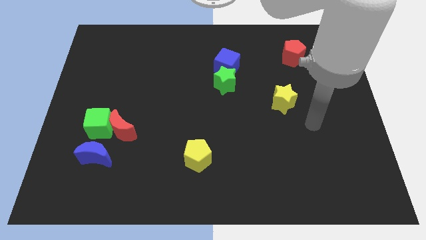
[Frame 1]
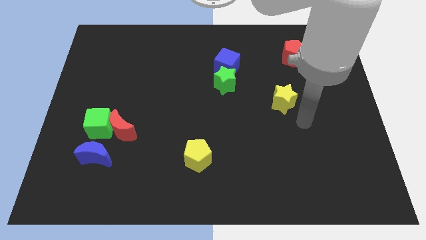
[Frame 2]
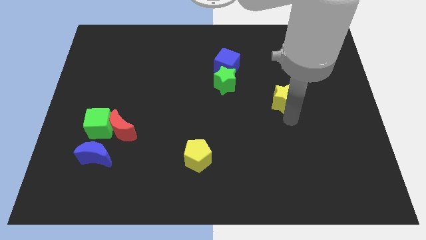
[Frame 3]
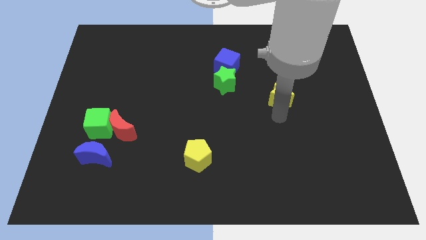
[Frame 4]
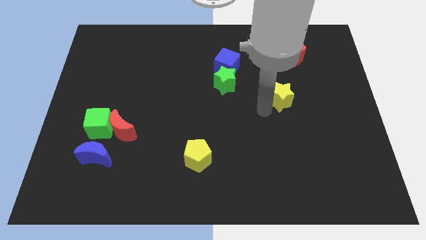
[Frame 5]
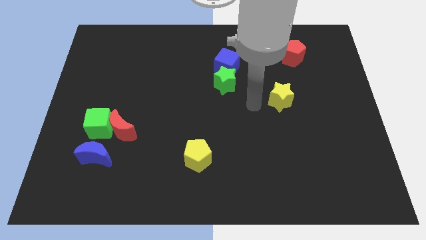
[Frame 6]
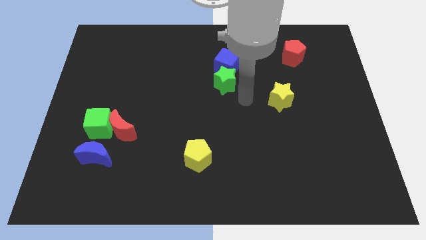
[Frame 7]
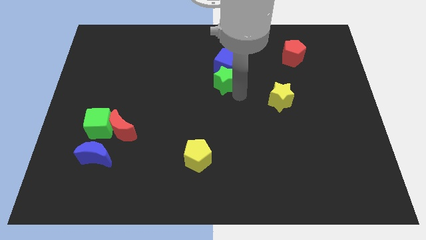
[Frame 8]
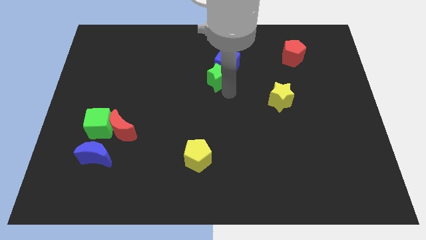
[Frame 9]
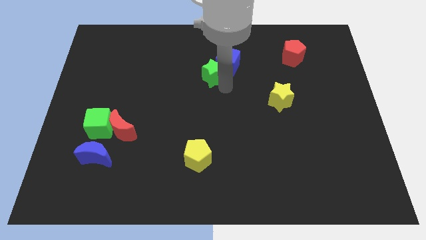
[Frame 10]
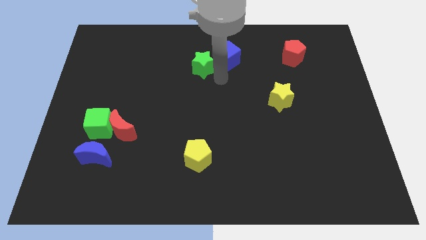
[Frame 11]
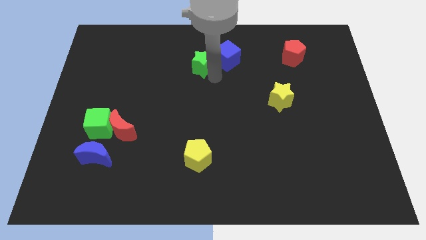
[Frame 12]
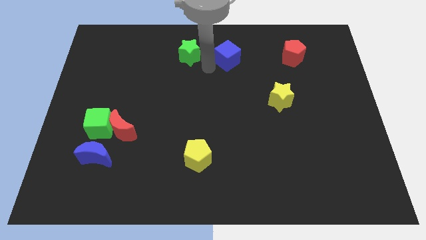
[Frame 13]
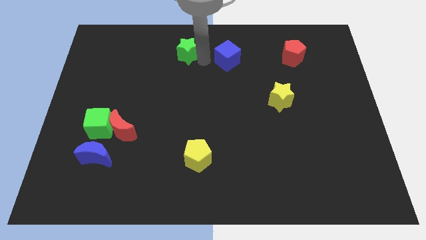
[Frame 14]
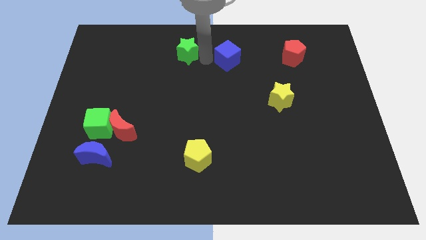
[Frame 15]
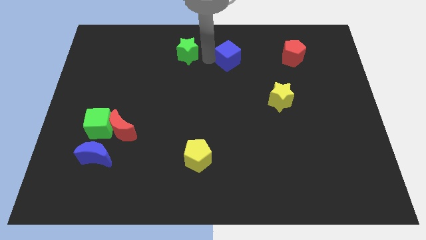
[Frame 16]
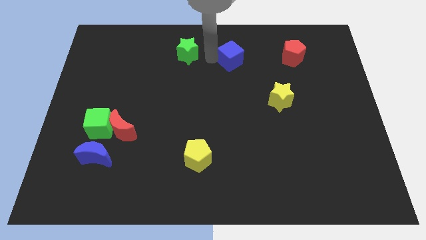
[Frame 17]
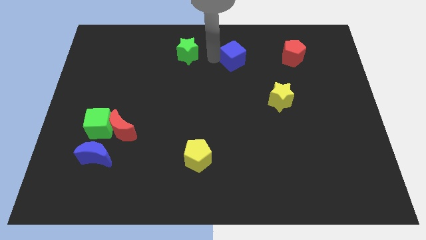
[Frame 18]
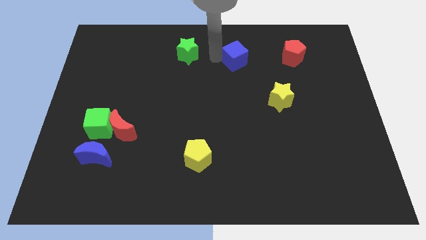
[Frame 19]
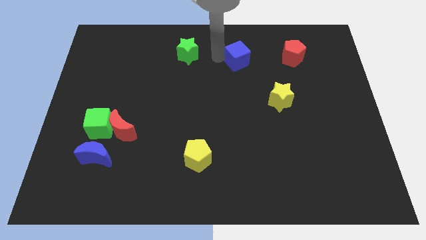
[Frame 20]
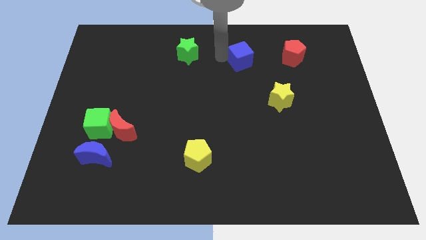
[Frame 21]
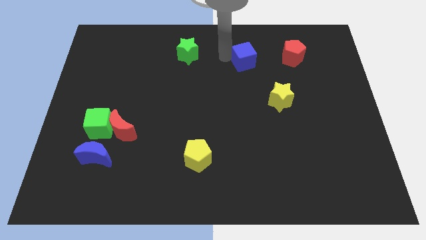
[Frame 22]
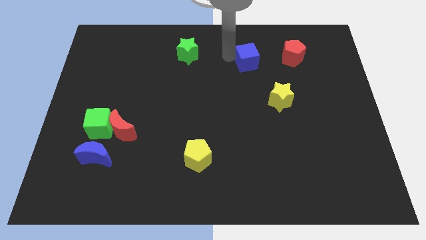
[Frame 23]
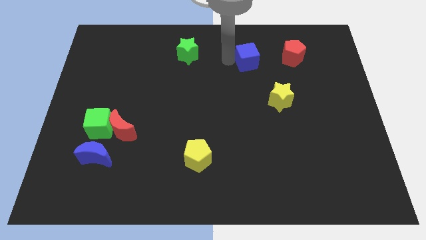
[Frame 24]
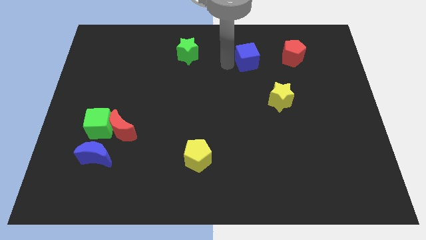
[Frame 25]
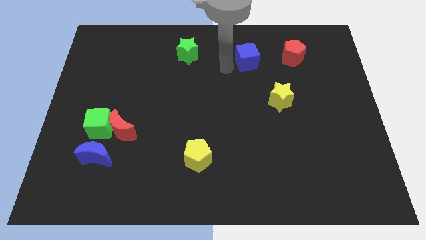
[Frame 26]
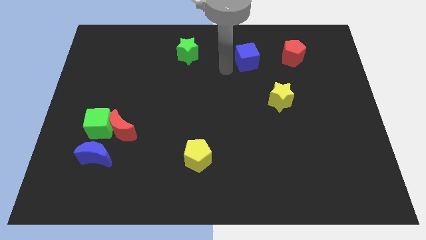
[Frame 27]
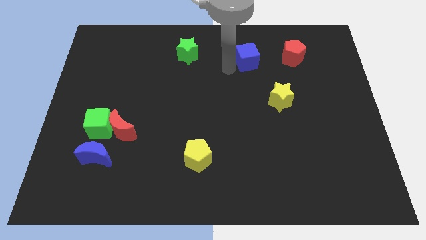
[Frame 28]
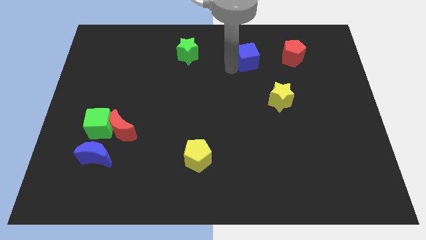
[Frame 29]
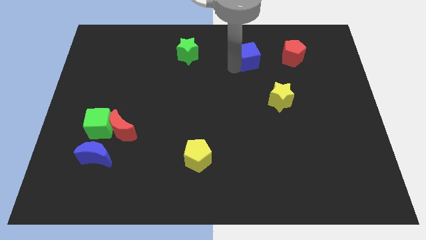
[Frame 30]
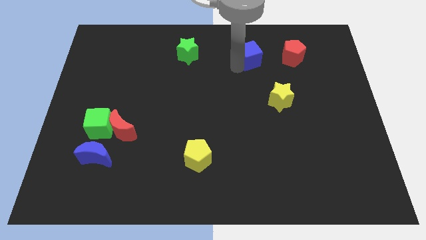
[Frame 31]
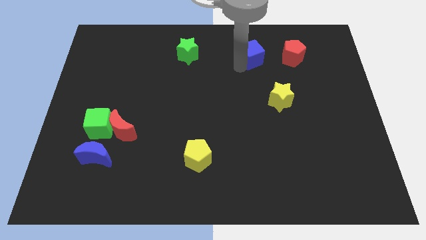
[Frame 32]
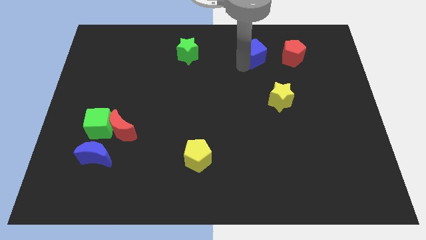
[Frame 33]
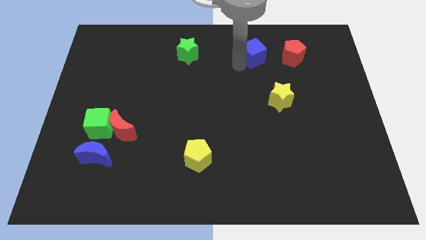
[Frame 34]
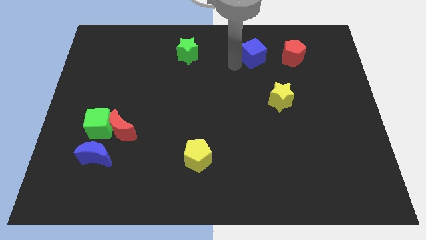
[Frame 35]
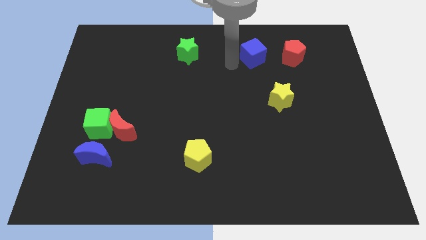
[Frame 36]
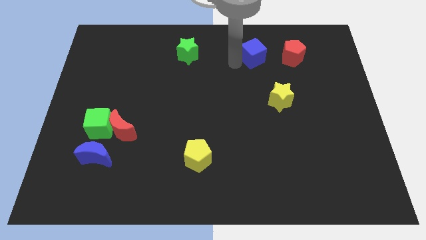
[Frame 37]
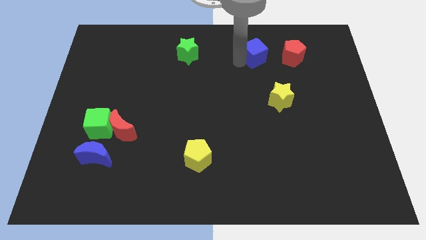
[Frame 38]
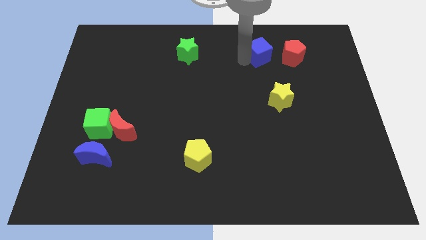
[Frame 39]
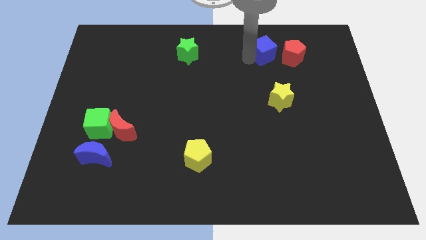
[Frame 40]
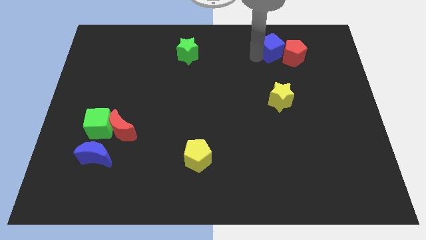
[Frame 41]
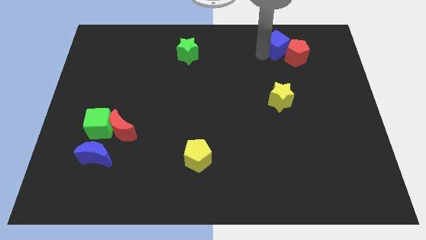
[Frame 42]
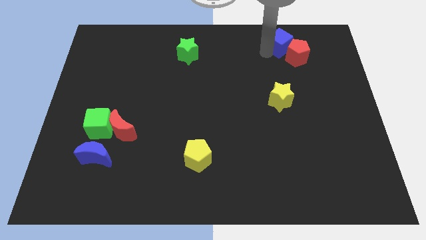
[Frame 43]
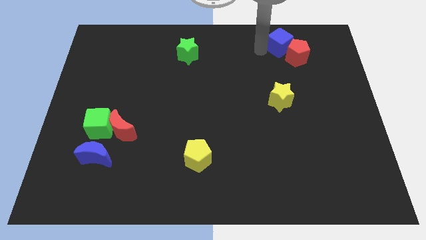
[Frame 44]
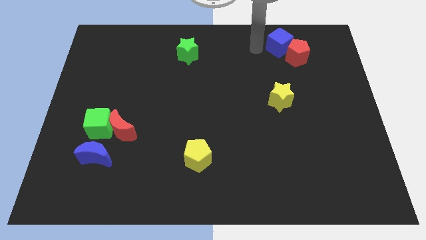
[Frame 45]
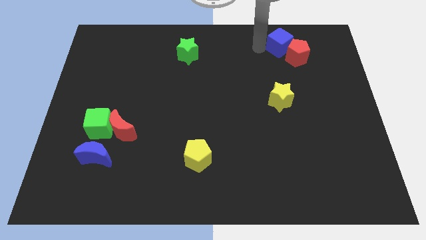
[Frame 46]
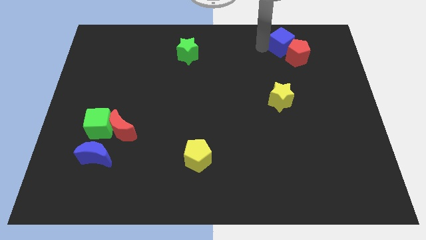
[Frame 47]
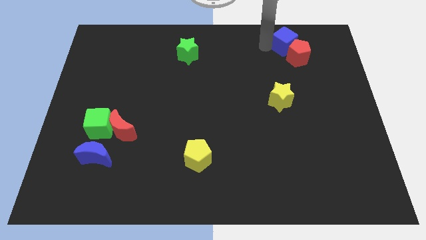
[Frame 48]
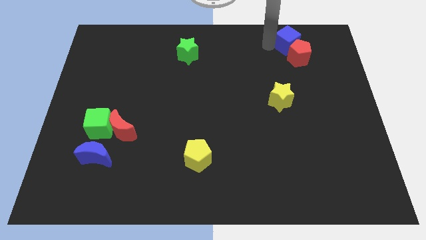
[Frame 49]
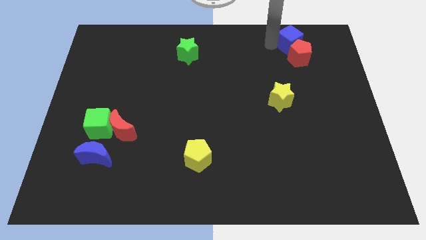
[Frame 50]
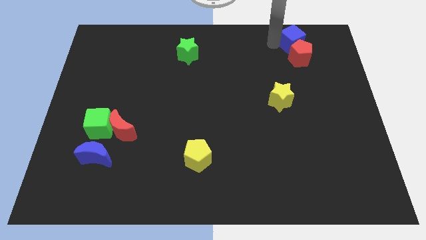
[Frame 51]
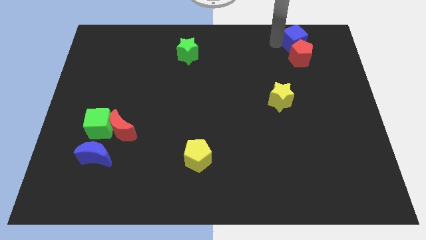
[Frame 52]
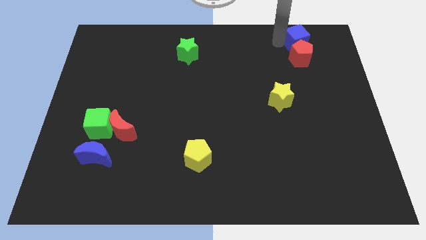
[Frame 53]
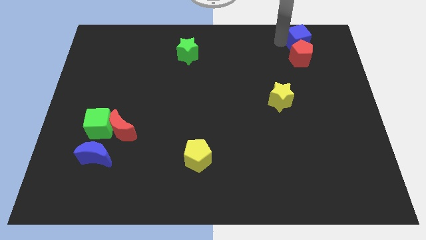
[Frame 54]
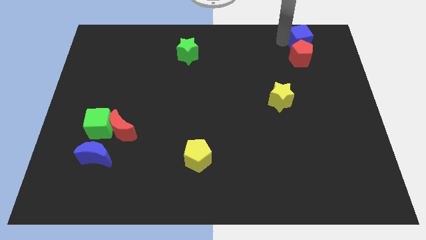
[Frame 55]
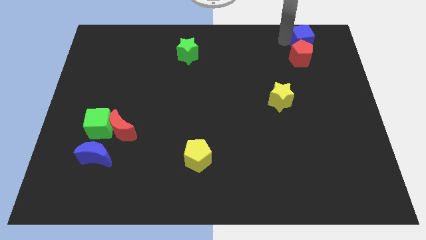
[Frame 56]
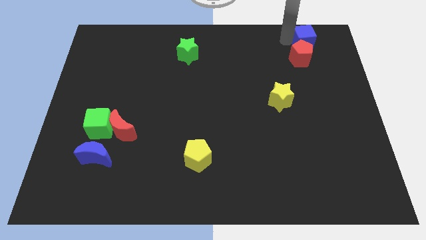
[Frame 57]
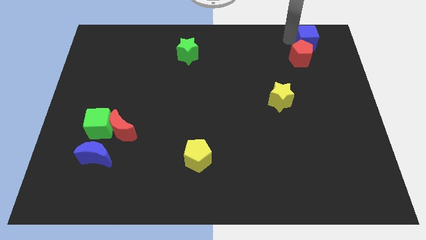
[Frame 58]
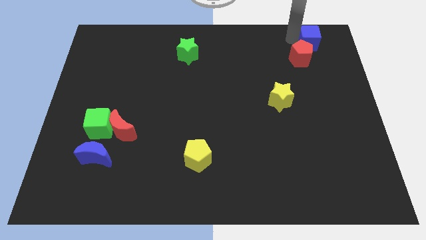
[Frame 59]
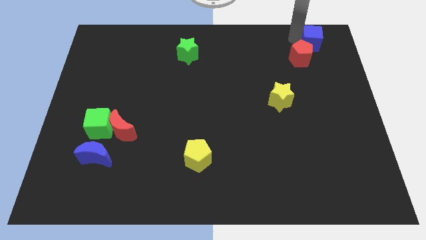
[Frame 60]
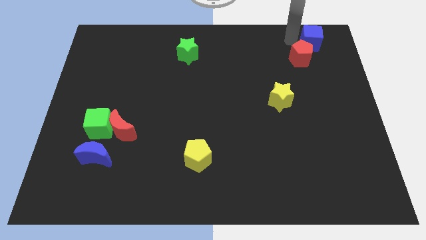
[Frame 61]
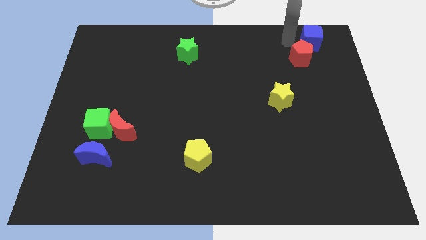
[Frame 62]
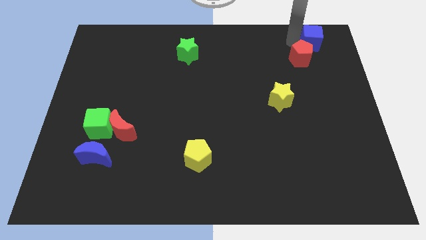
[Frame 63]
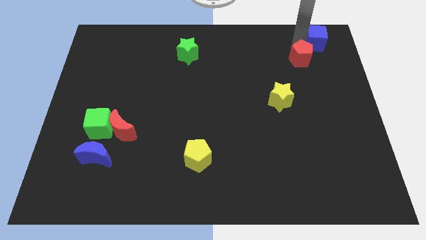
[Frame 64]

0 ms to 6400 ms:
push the blue cube to the upper right corner

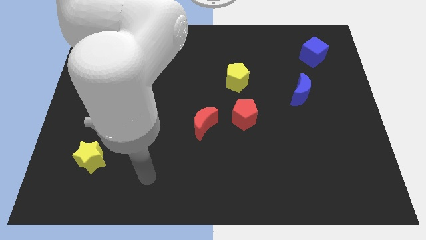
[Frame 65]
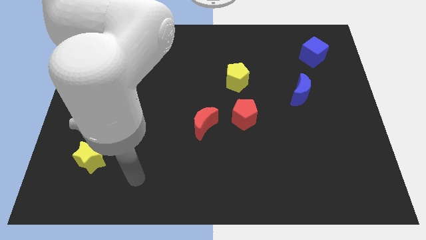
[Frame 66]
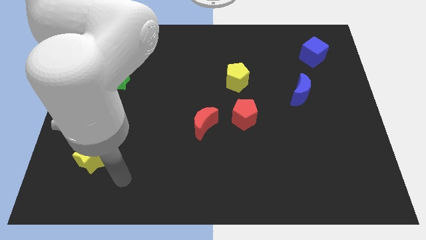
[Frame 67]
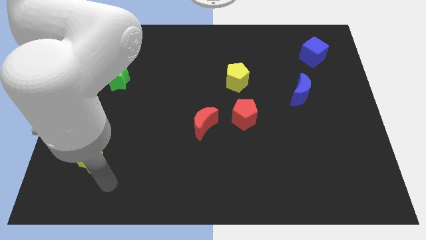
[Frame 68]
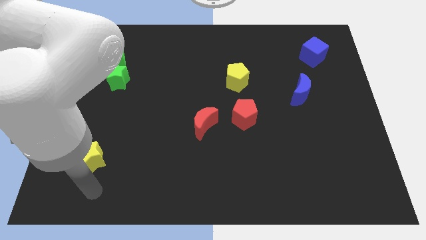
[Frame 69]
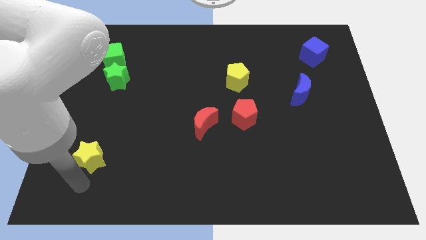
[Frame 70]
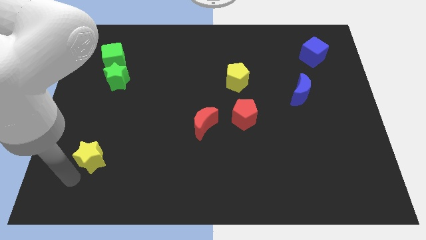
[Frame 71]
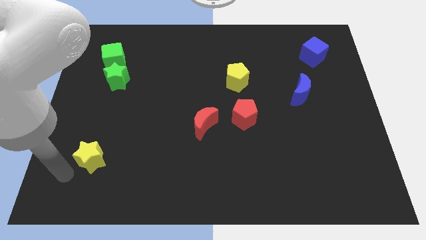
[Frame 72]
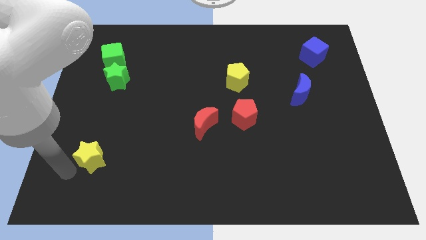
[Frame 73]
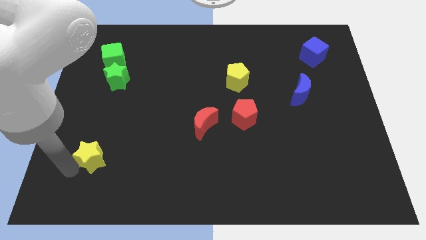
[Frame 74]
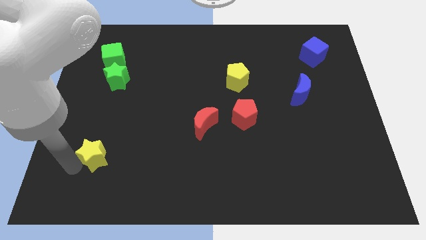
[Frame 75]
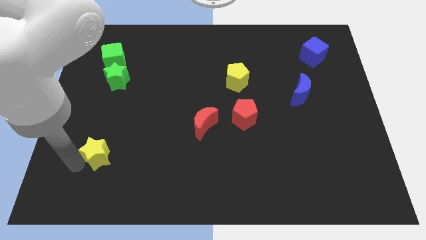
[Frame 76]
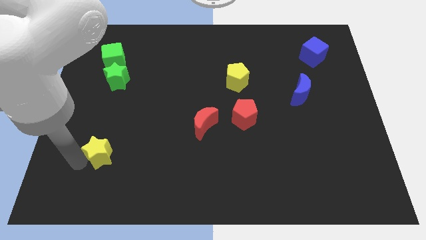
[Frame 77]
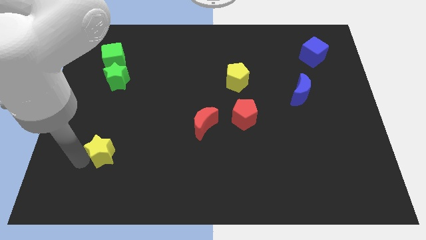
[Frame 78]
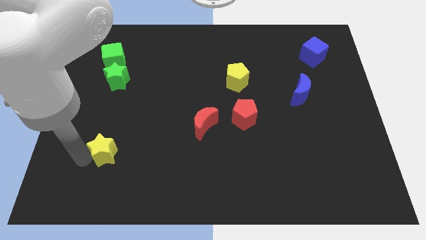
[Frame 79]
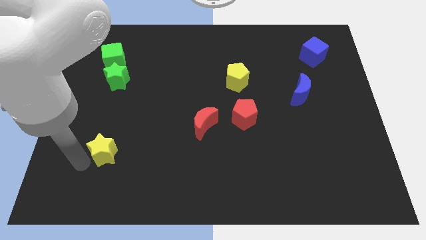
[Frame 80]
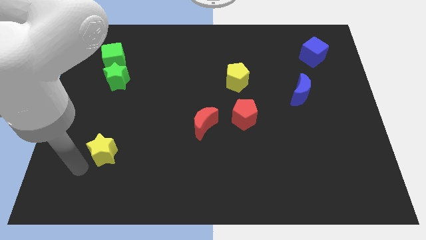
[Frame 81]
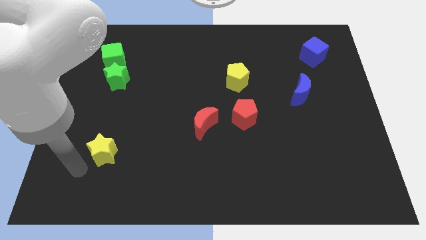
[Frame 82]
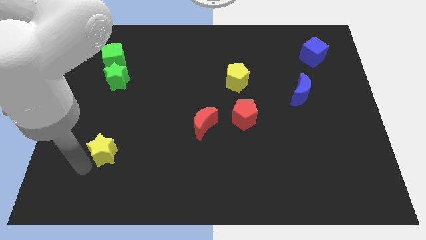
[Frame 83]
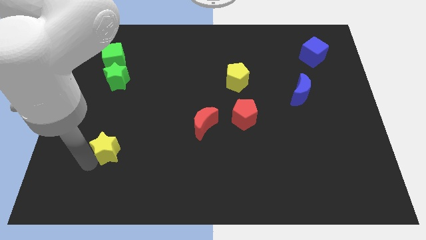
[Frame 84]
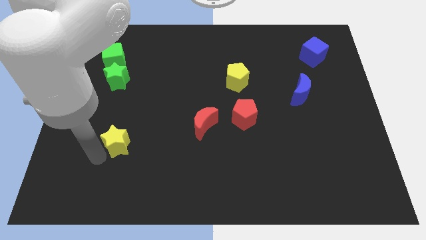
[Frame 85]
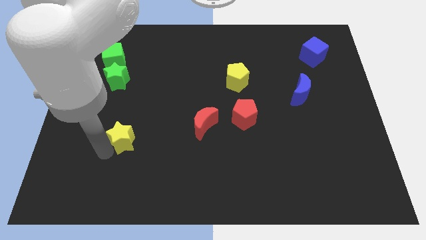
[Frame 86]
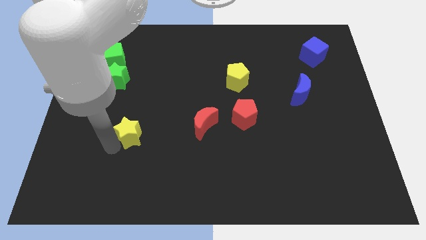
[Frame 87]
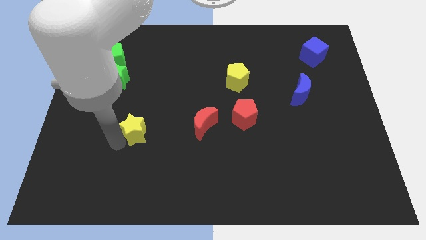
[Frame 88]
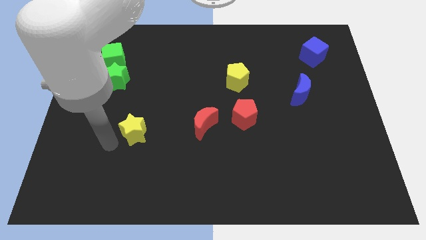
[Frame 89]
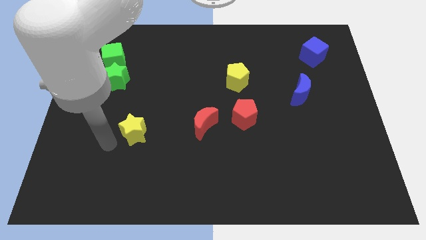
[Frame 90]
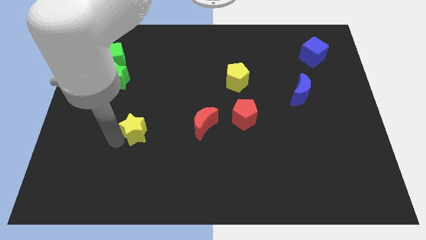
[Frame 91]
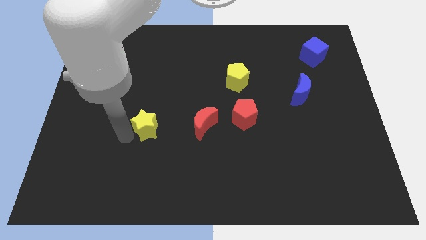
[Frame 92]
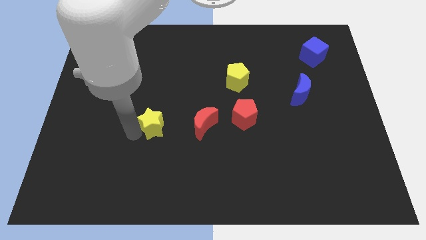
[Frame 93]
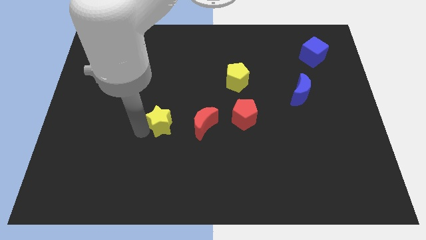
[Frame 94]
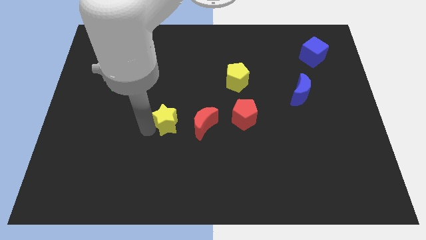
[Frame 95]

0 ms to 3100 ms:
slide the yellow star to the middle
